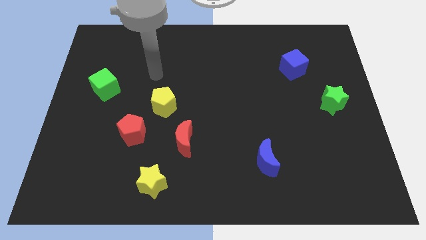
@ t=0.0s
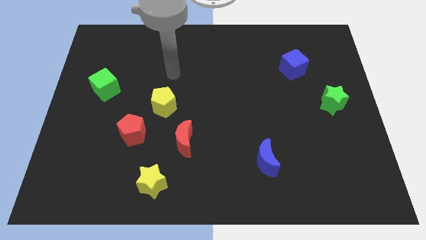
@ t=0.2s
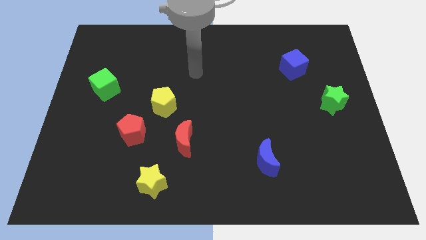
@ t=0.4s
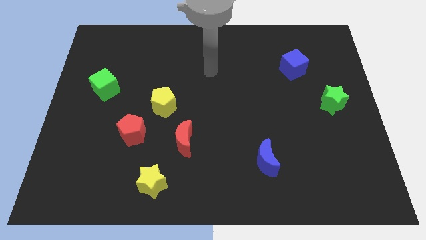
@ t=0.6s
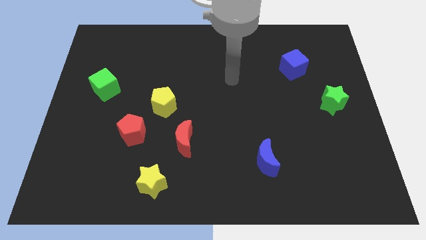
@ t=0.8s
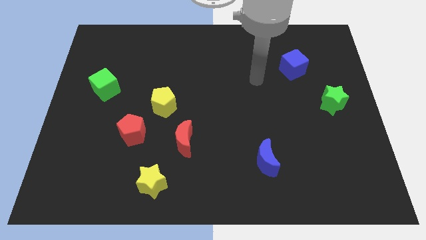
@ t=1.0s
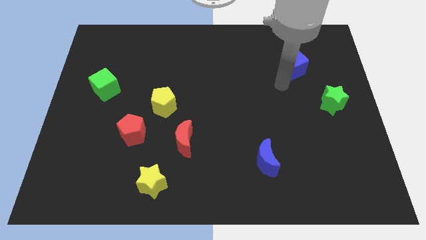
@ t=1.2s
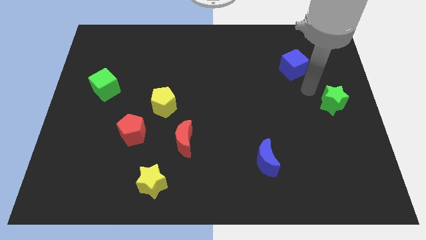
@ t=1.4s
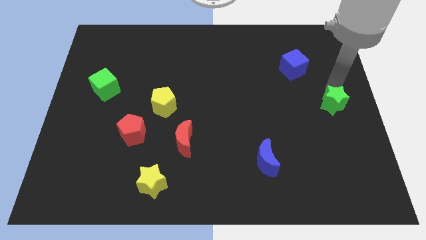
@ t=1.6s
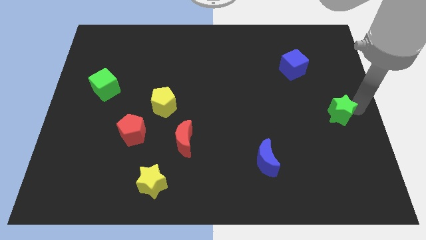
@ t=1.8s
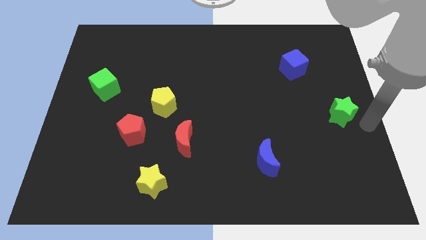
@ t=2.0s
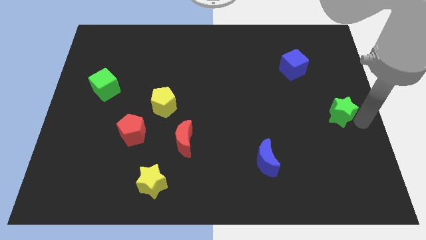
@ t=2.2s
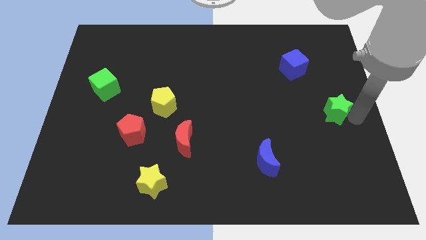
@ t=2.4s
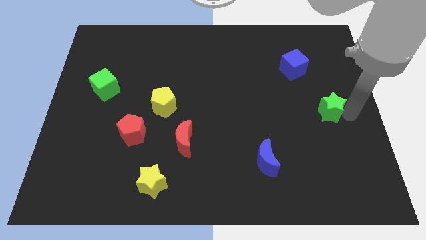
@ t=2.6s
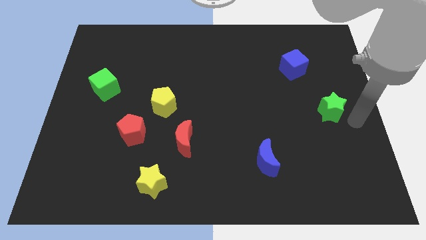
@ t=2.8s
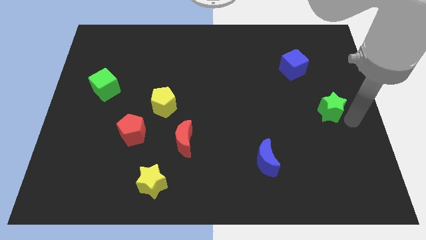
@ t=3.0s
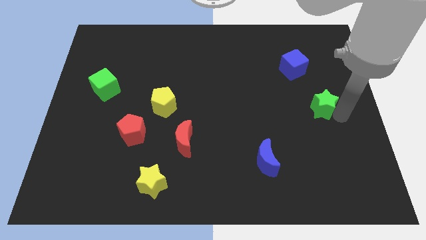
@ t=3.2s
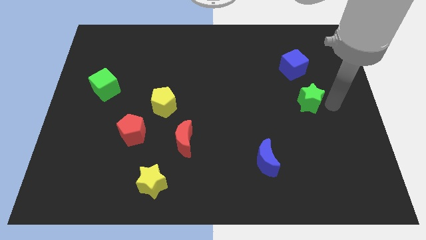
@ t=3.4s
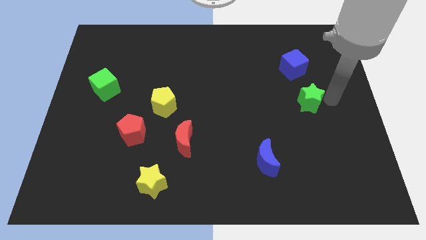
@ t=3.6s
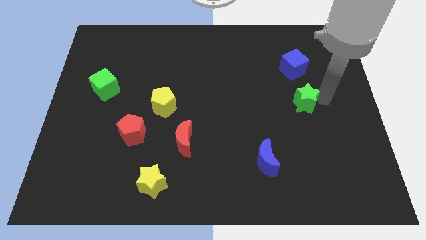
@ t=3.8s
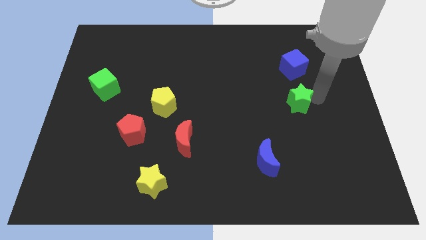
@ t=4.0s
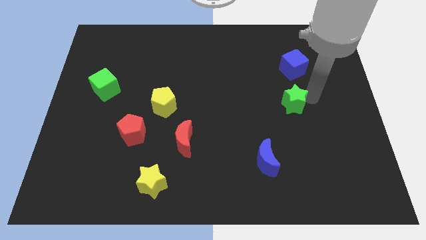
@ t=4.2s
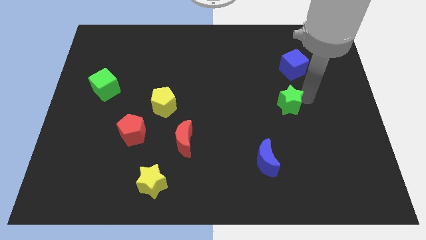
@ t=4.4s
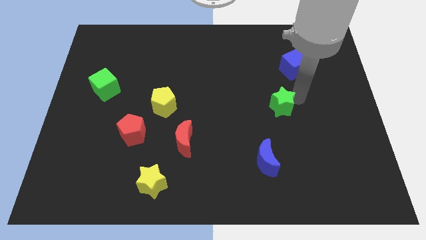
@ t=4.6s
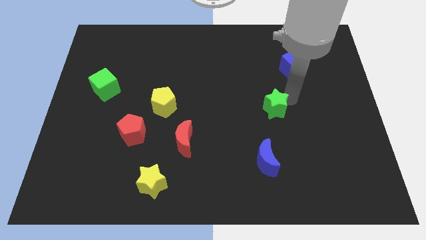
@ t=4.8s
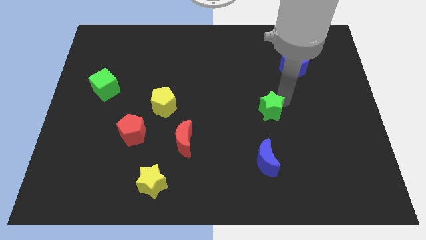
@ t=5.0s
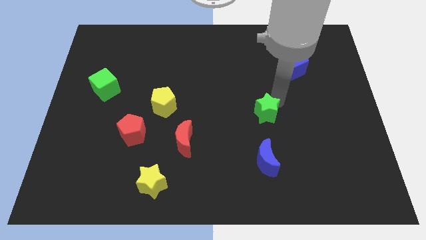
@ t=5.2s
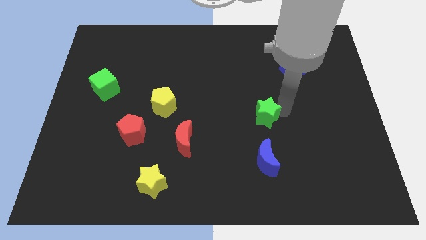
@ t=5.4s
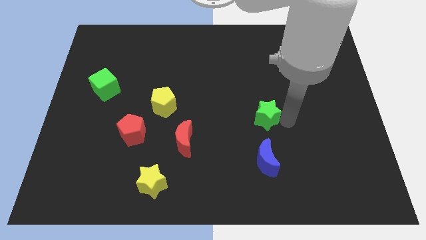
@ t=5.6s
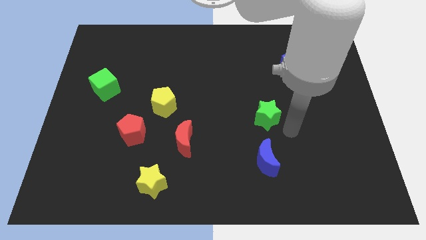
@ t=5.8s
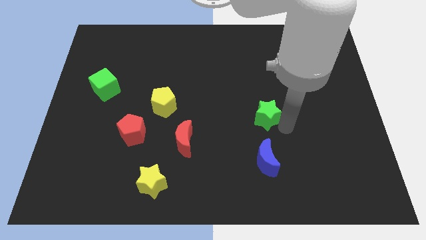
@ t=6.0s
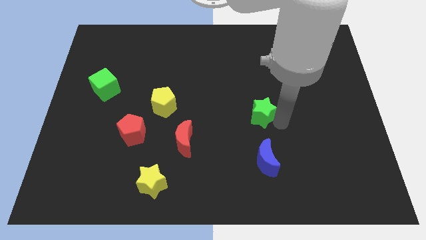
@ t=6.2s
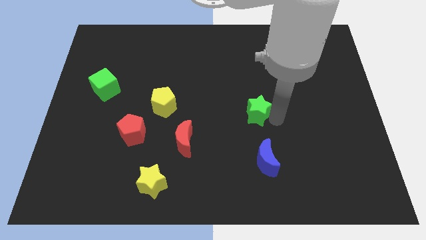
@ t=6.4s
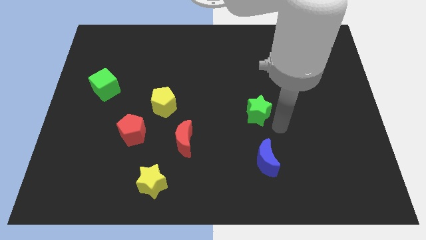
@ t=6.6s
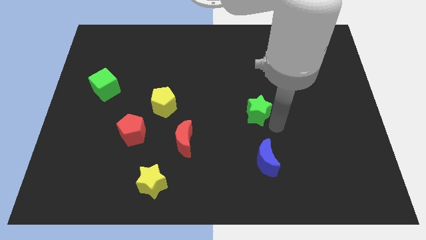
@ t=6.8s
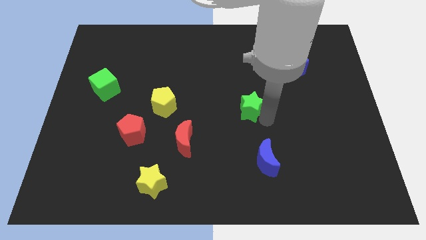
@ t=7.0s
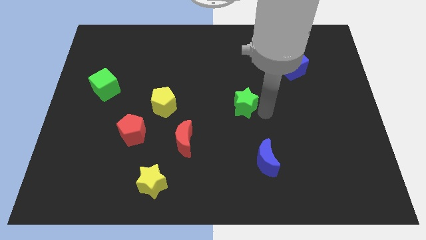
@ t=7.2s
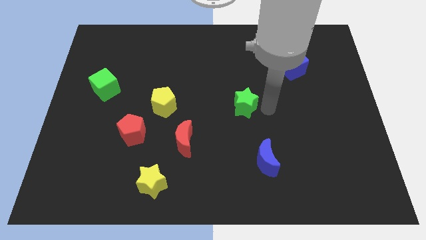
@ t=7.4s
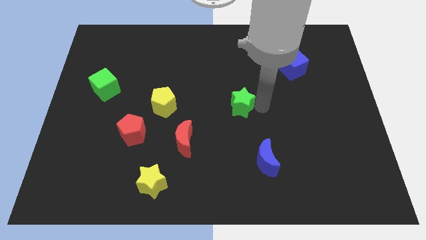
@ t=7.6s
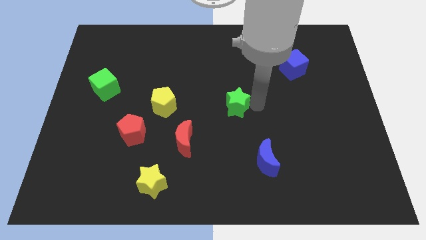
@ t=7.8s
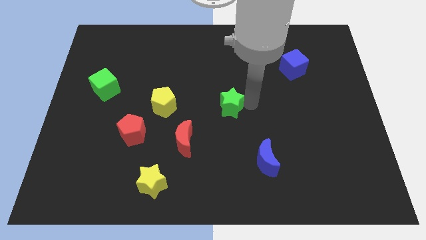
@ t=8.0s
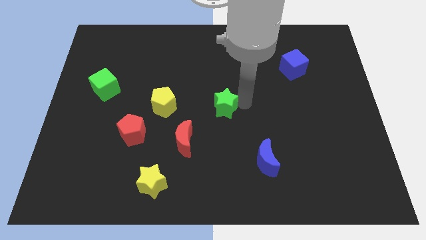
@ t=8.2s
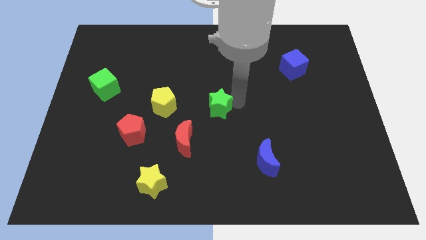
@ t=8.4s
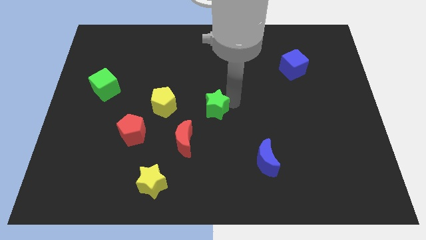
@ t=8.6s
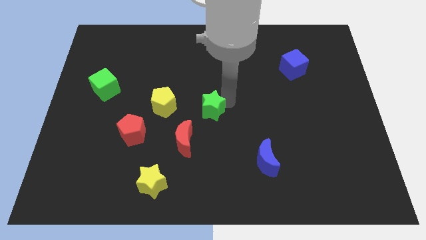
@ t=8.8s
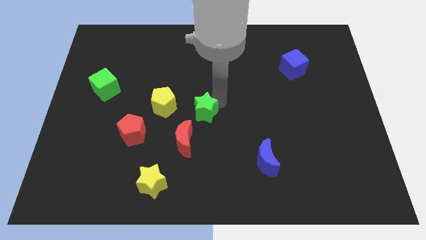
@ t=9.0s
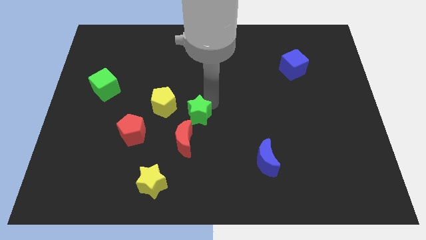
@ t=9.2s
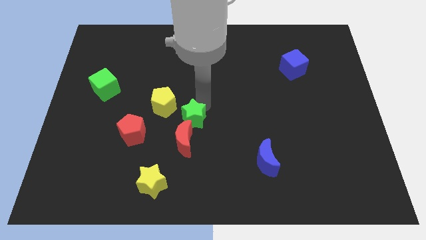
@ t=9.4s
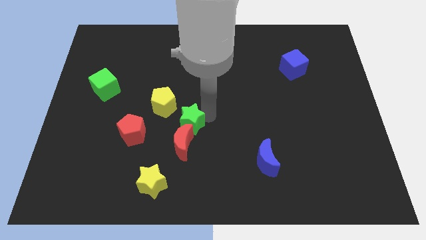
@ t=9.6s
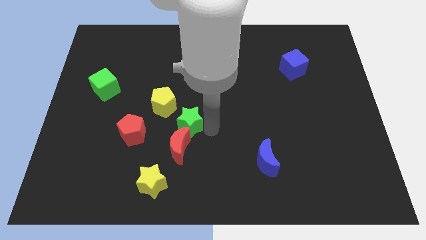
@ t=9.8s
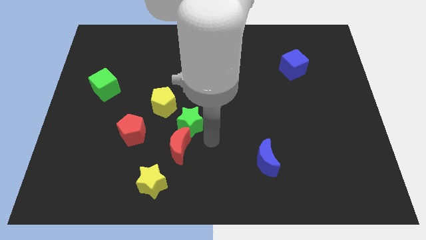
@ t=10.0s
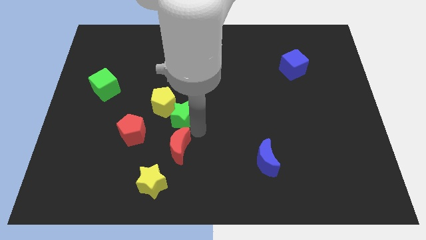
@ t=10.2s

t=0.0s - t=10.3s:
push the green star close to the yellow pentagon

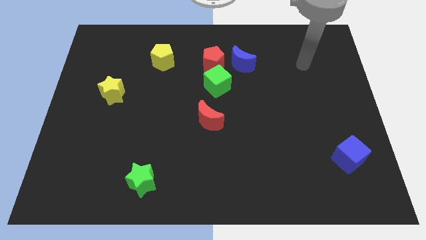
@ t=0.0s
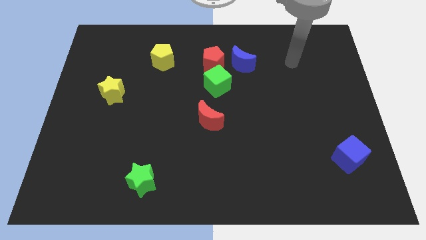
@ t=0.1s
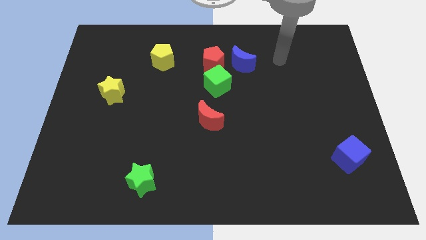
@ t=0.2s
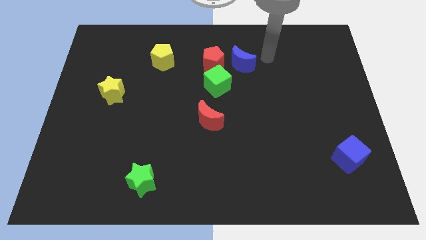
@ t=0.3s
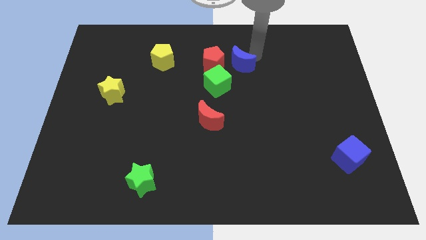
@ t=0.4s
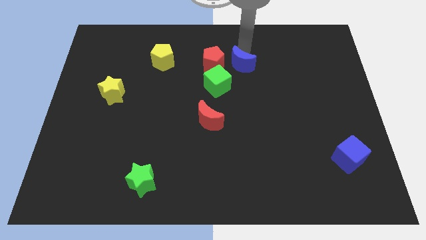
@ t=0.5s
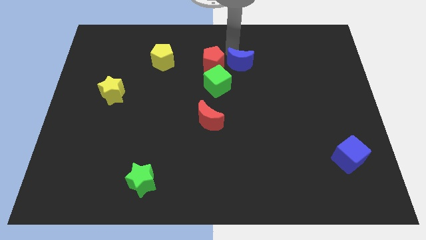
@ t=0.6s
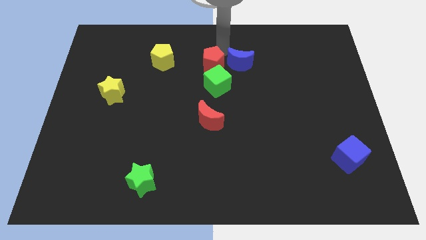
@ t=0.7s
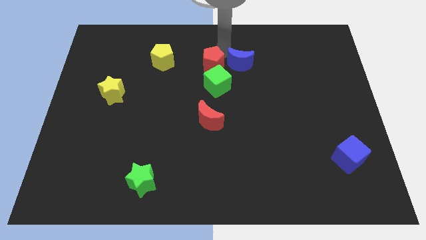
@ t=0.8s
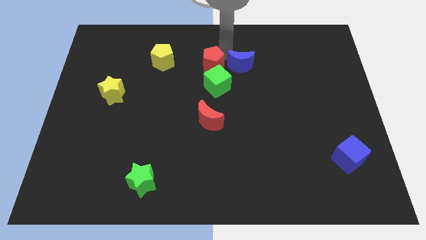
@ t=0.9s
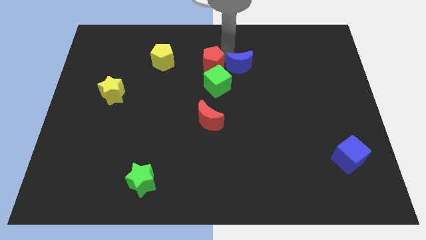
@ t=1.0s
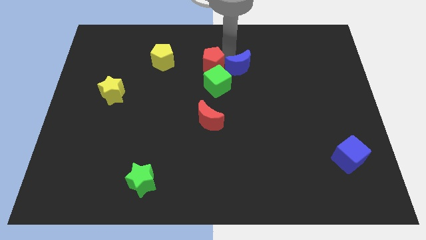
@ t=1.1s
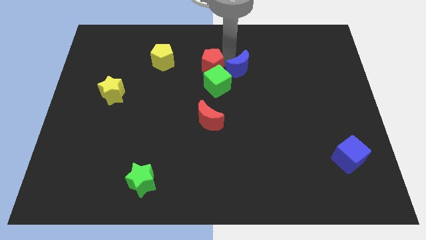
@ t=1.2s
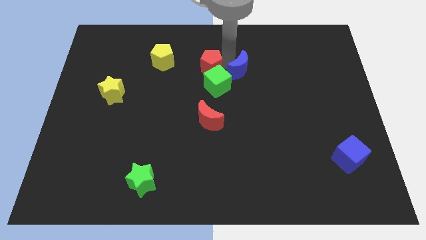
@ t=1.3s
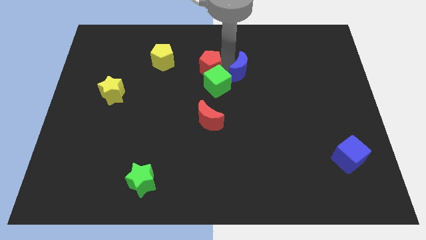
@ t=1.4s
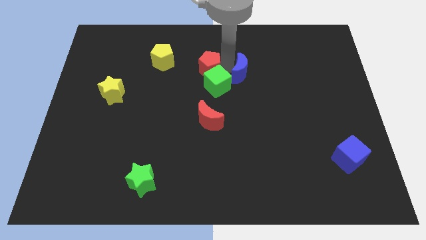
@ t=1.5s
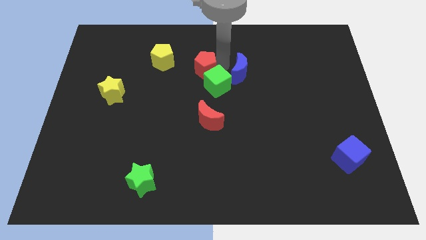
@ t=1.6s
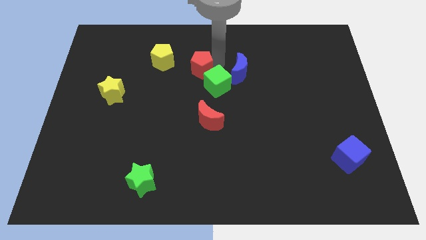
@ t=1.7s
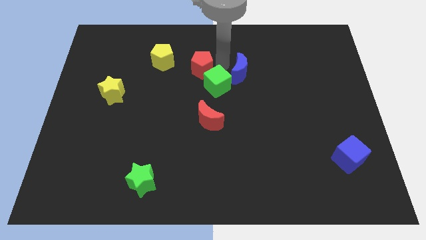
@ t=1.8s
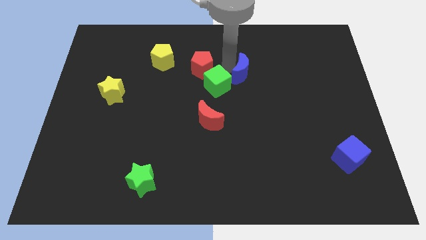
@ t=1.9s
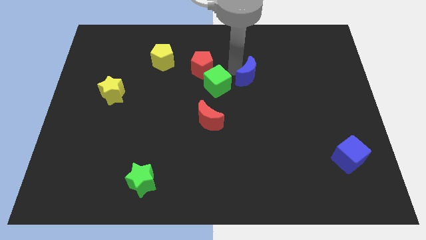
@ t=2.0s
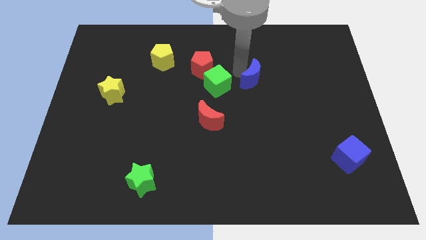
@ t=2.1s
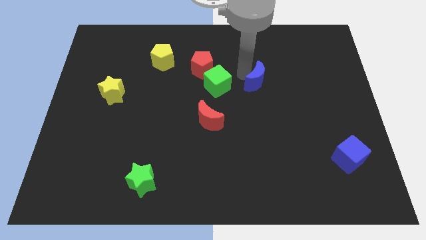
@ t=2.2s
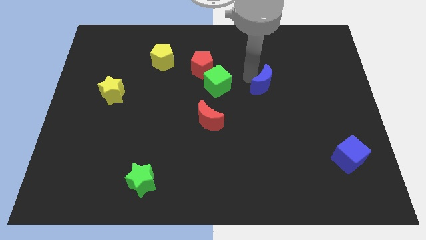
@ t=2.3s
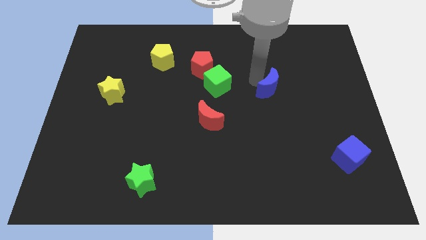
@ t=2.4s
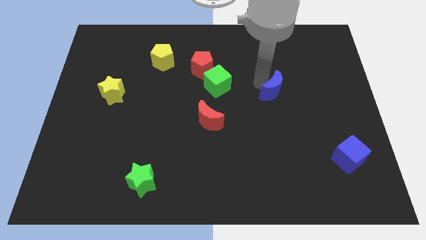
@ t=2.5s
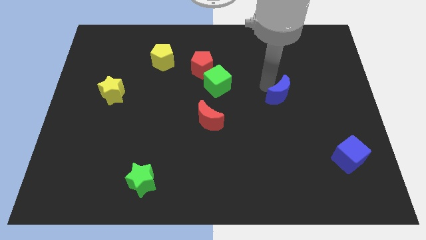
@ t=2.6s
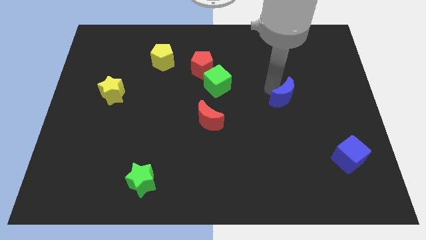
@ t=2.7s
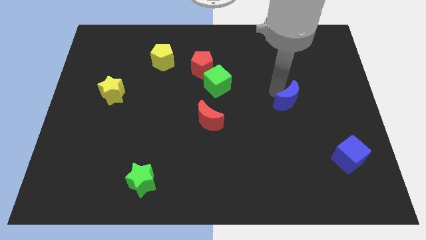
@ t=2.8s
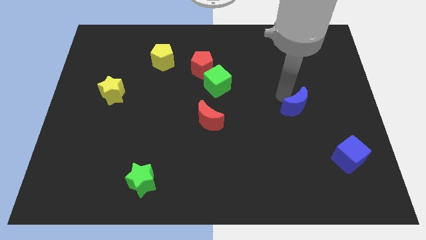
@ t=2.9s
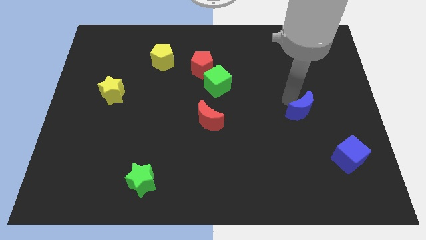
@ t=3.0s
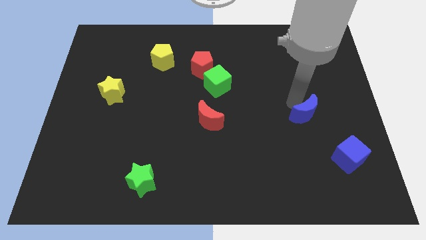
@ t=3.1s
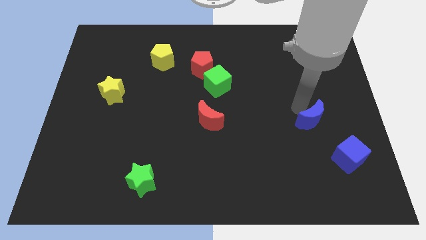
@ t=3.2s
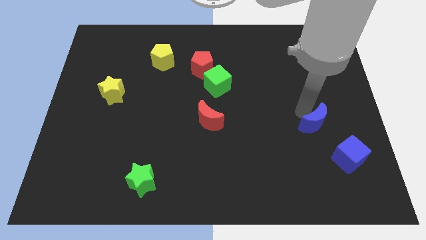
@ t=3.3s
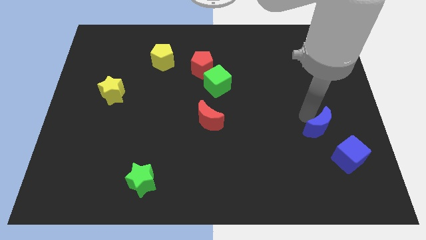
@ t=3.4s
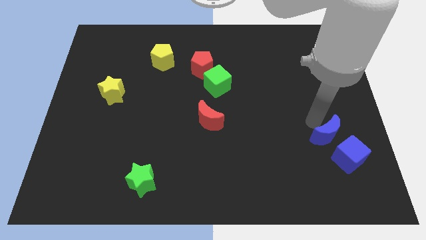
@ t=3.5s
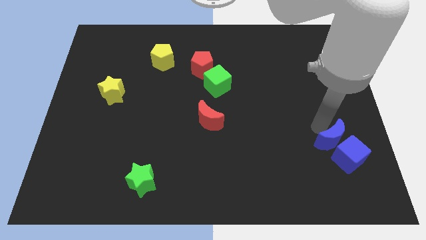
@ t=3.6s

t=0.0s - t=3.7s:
move the blue moon close to the blue cube
